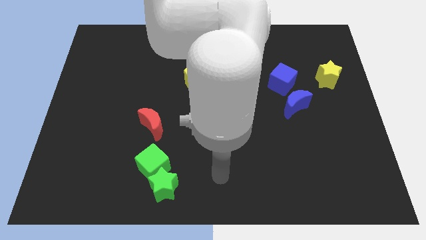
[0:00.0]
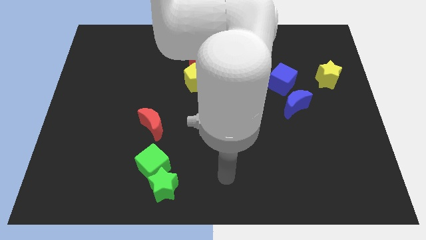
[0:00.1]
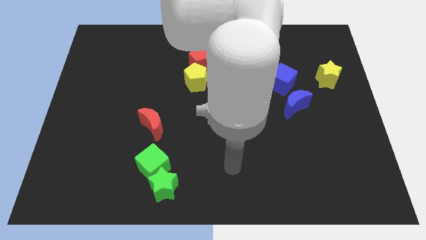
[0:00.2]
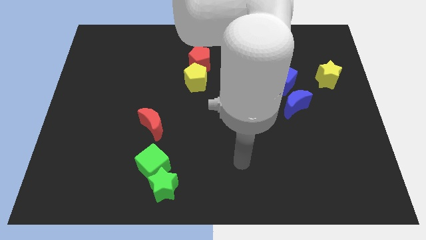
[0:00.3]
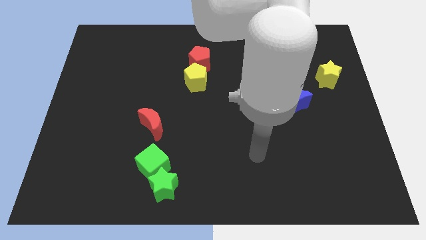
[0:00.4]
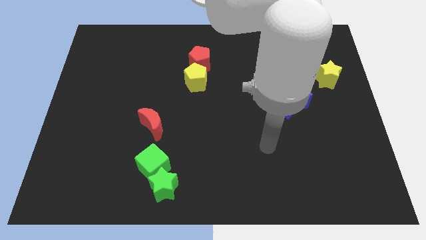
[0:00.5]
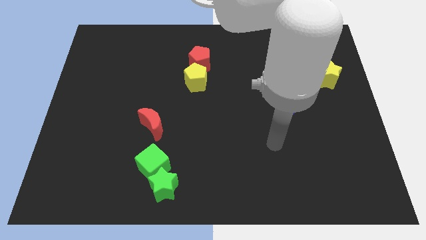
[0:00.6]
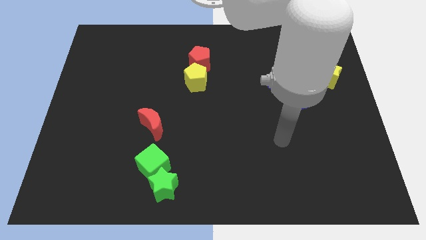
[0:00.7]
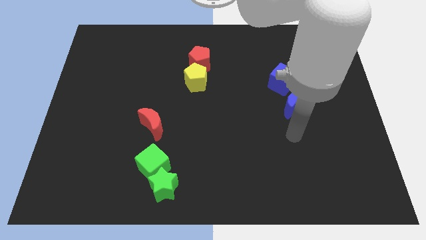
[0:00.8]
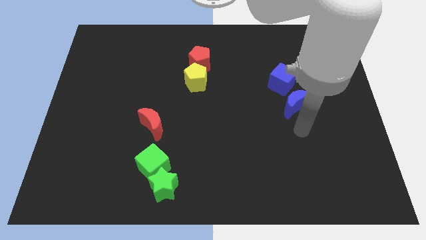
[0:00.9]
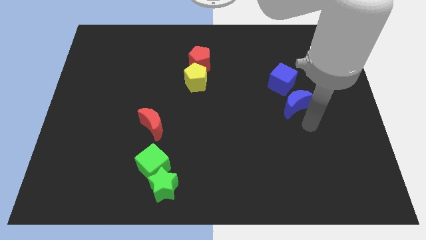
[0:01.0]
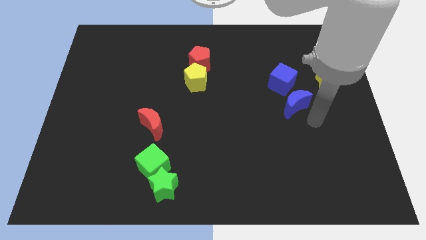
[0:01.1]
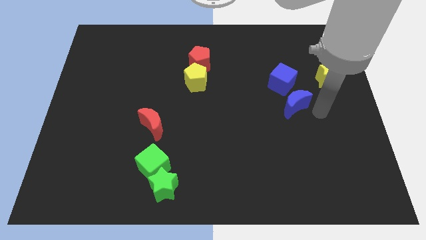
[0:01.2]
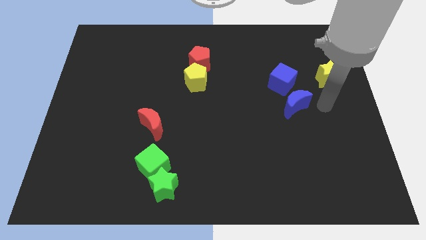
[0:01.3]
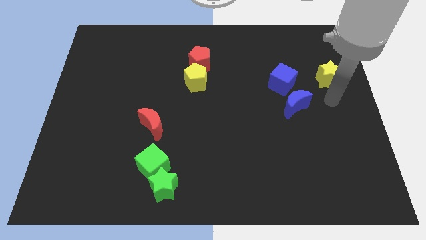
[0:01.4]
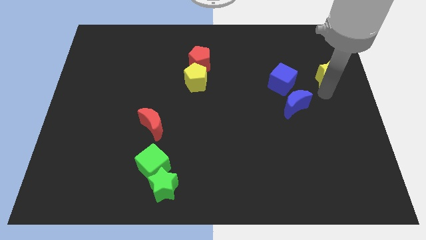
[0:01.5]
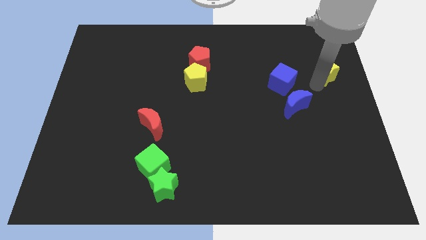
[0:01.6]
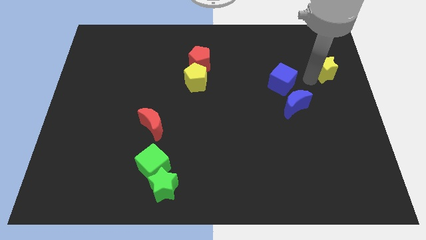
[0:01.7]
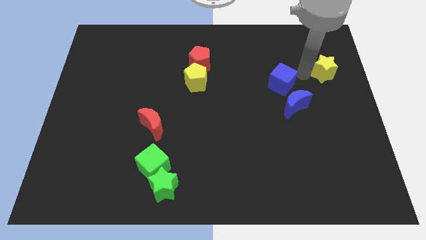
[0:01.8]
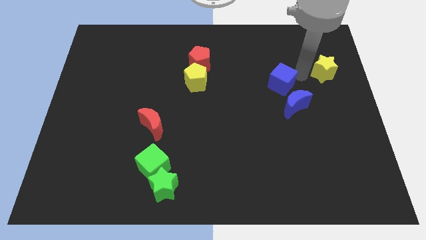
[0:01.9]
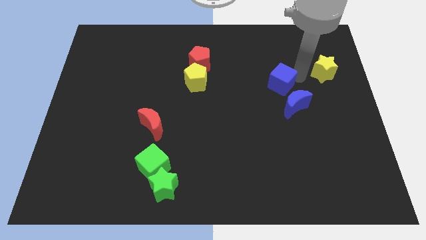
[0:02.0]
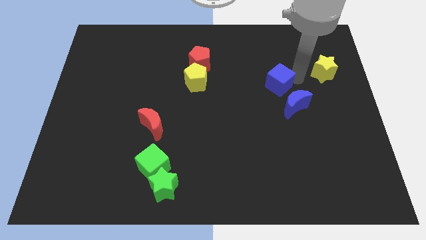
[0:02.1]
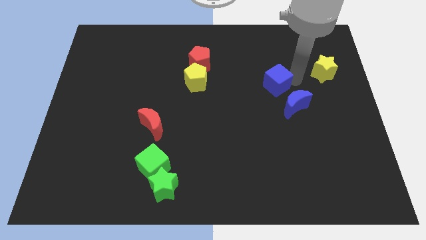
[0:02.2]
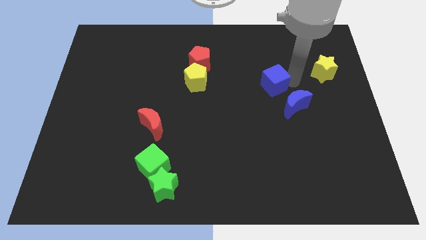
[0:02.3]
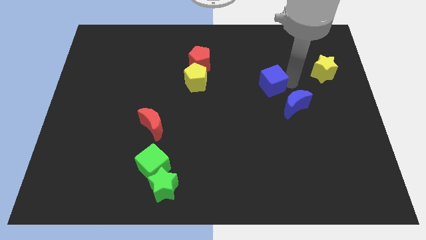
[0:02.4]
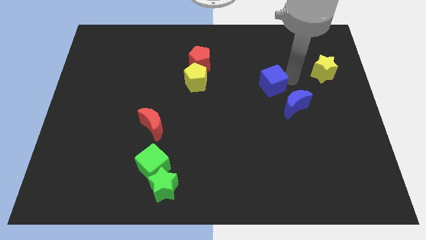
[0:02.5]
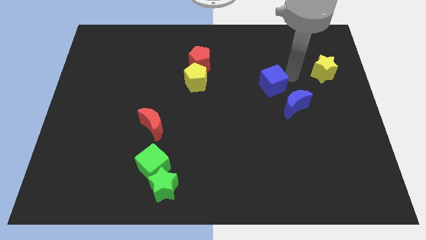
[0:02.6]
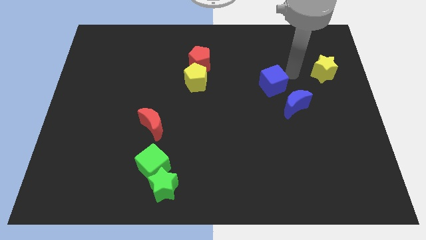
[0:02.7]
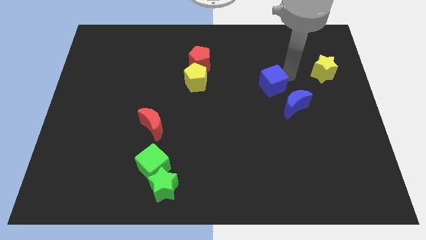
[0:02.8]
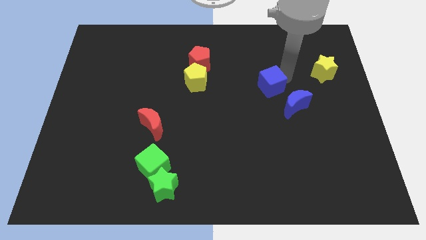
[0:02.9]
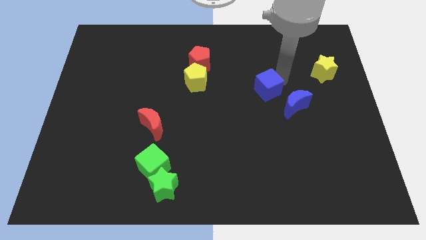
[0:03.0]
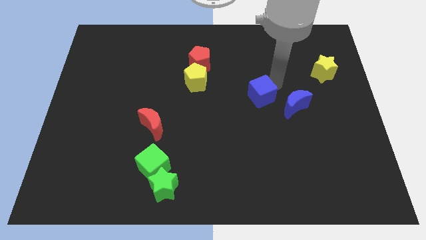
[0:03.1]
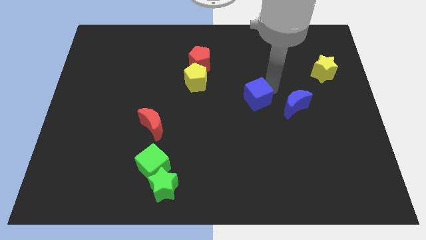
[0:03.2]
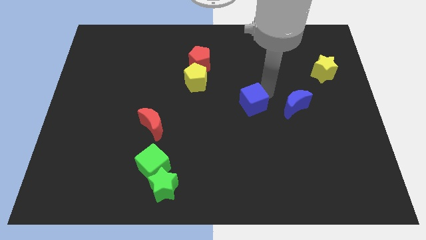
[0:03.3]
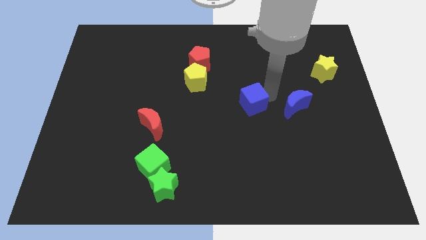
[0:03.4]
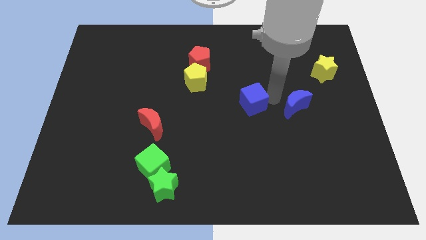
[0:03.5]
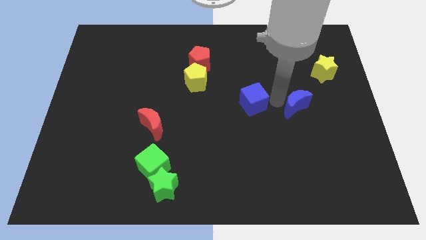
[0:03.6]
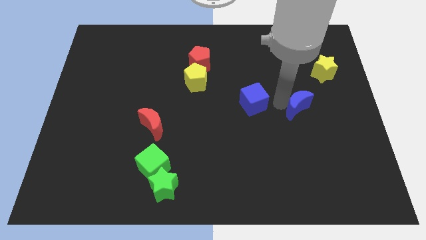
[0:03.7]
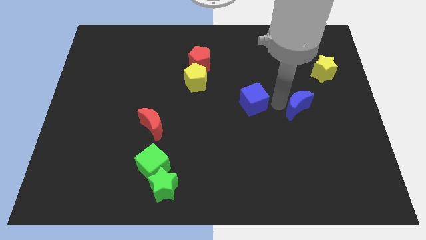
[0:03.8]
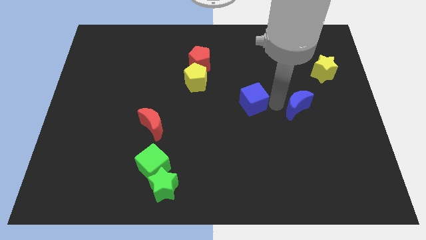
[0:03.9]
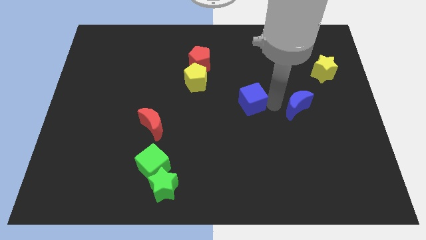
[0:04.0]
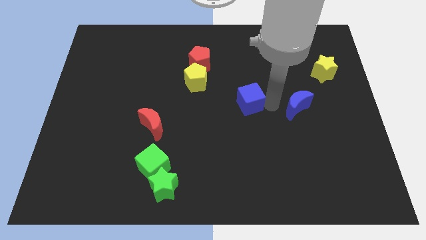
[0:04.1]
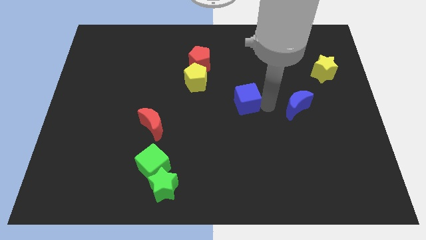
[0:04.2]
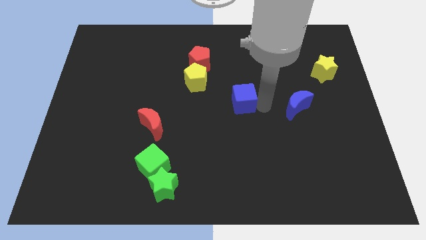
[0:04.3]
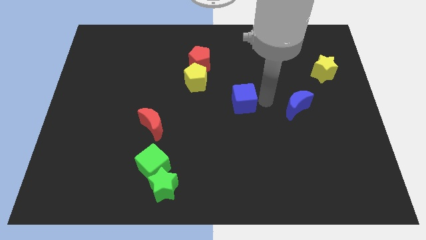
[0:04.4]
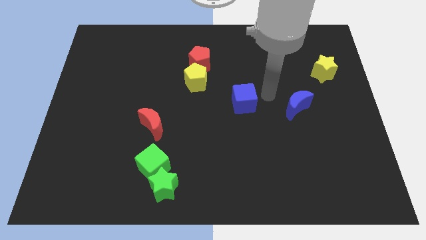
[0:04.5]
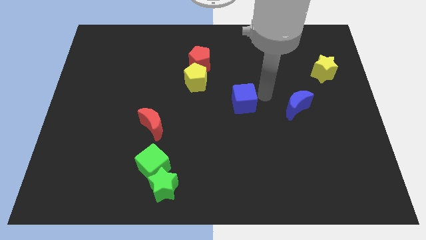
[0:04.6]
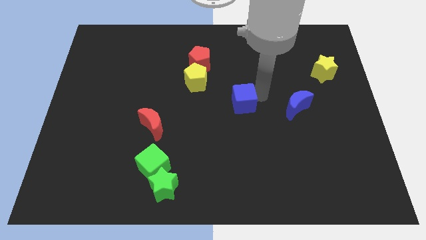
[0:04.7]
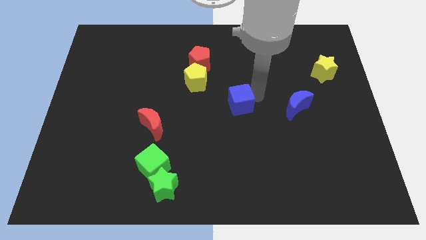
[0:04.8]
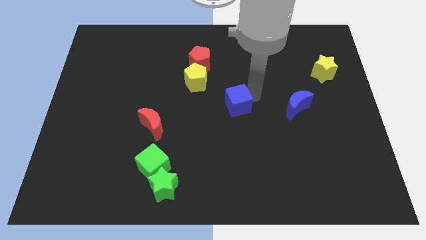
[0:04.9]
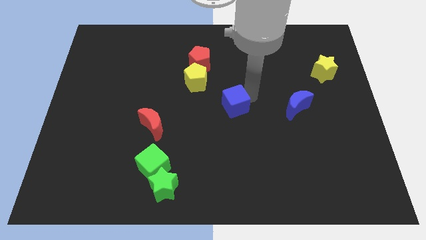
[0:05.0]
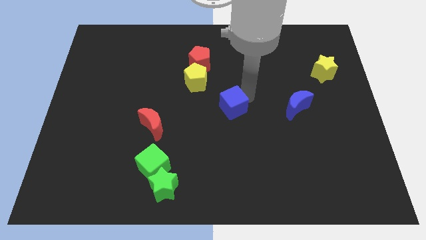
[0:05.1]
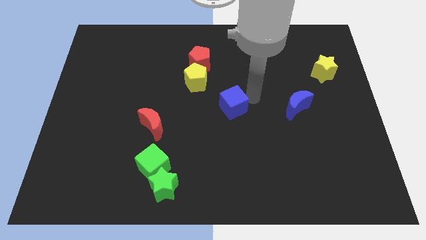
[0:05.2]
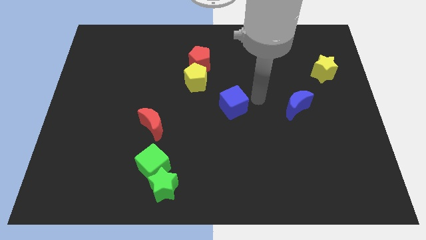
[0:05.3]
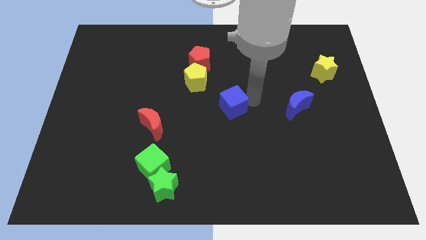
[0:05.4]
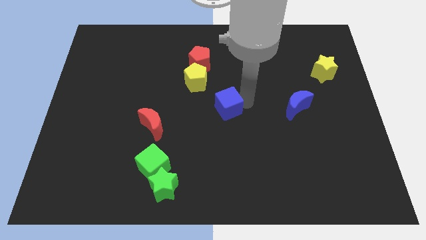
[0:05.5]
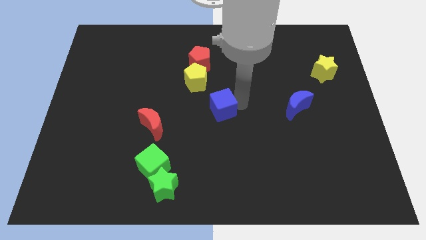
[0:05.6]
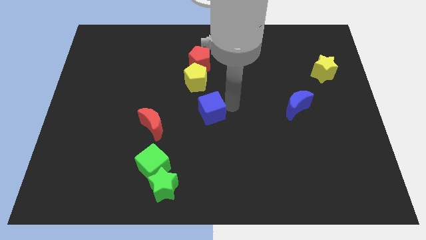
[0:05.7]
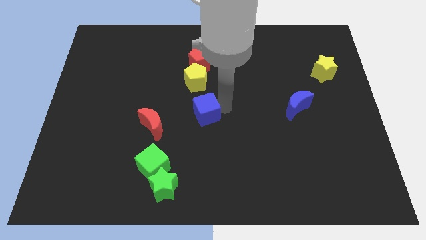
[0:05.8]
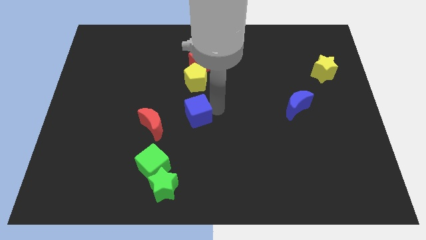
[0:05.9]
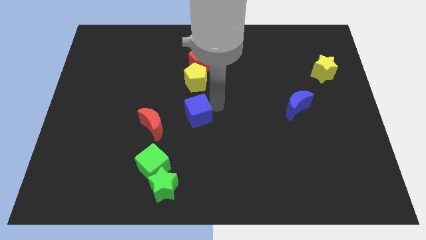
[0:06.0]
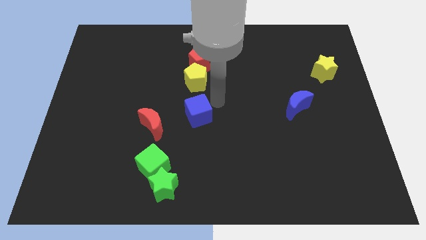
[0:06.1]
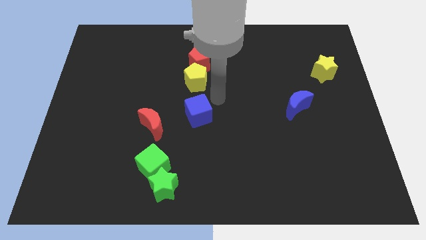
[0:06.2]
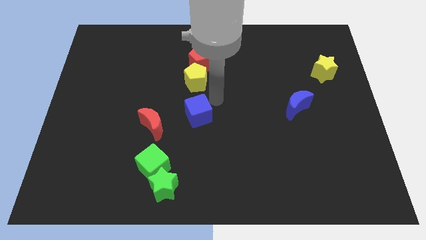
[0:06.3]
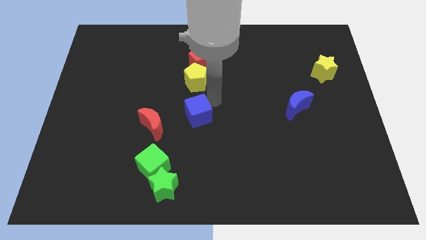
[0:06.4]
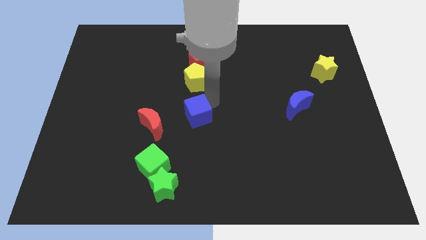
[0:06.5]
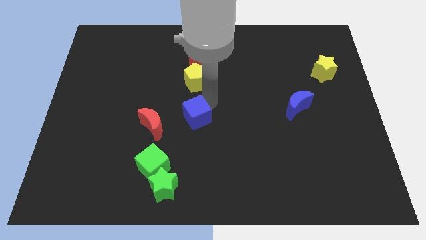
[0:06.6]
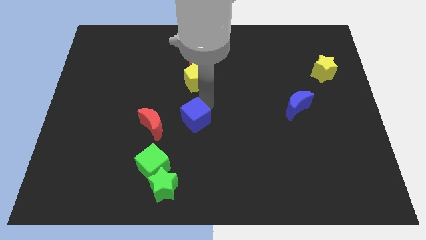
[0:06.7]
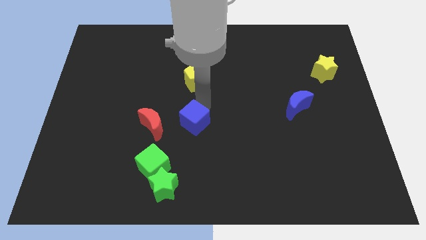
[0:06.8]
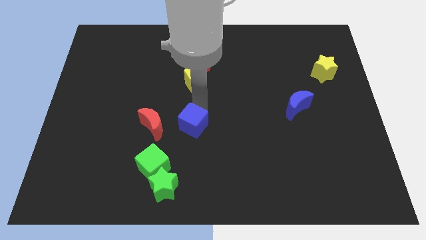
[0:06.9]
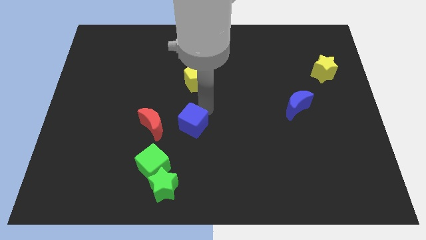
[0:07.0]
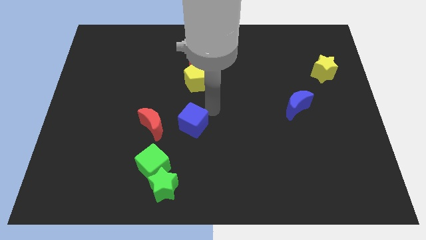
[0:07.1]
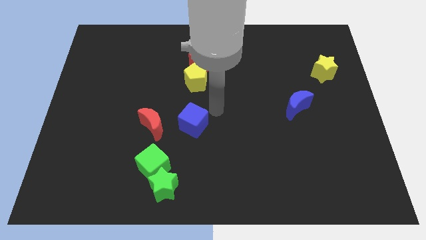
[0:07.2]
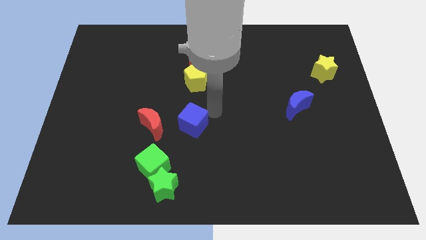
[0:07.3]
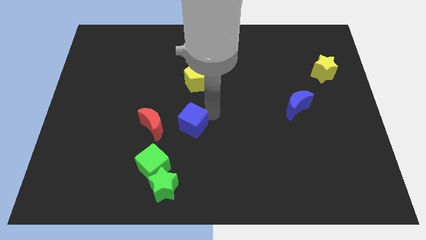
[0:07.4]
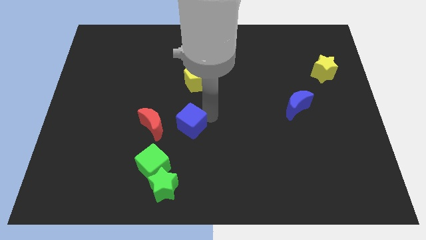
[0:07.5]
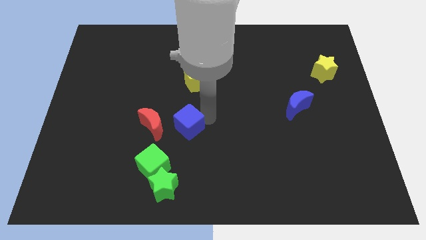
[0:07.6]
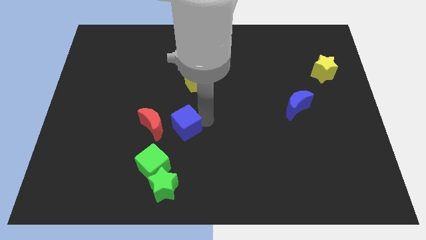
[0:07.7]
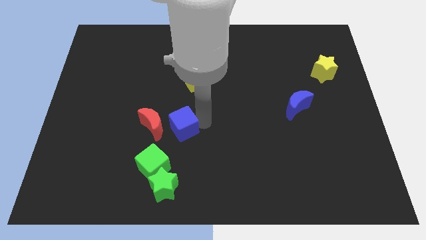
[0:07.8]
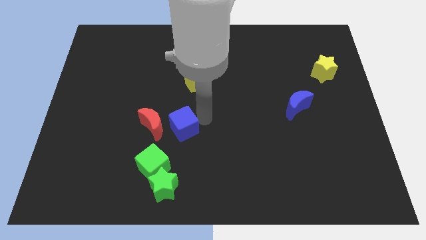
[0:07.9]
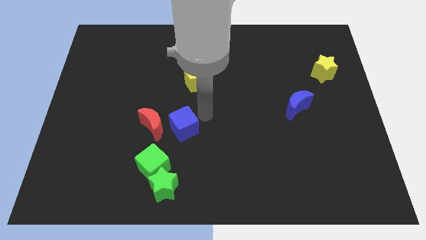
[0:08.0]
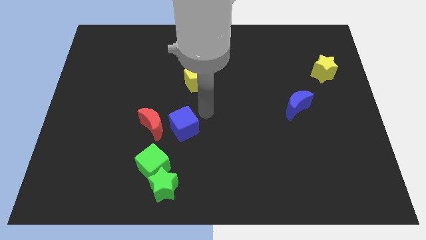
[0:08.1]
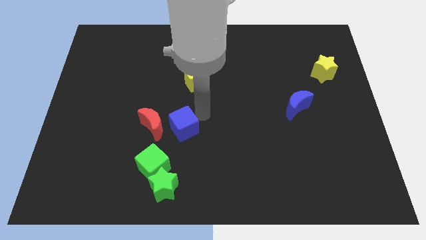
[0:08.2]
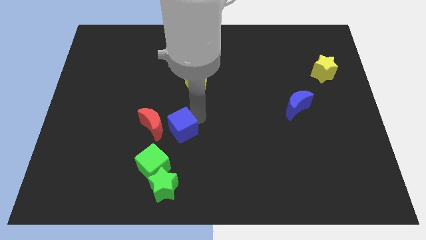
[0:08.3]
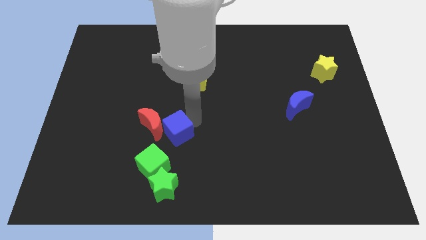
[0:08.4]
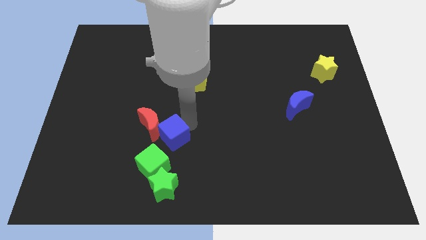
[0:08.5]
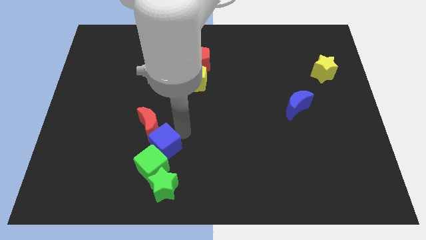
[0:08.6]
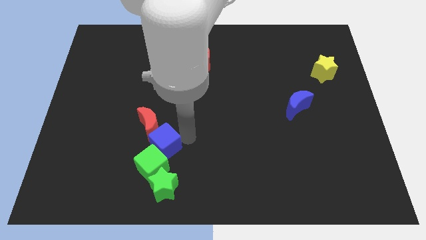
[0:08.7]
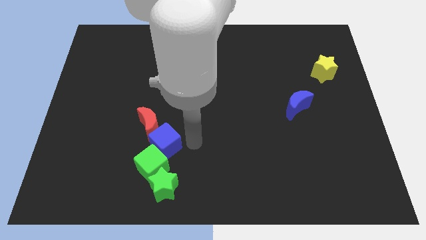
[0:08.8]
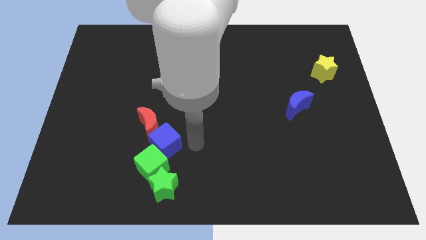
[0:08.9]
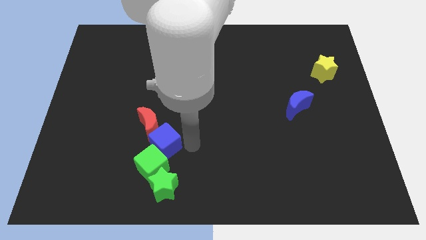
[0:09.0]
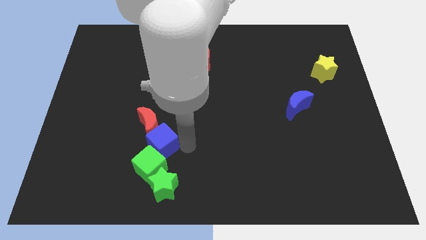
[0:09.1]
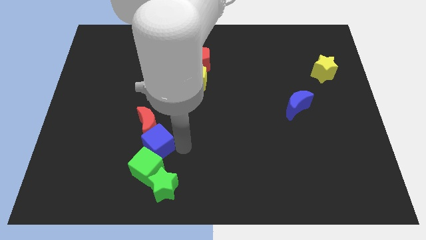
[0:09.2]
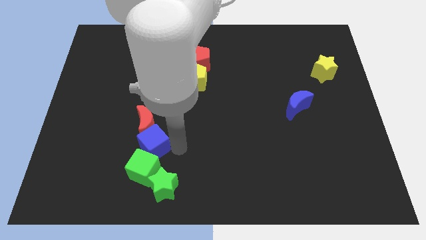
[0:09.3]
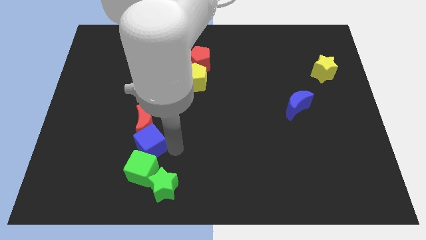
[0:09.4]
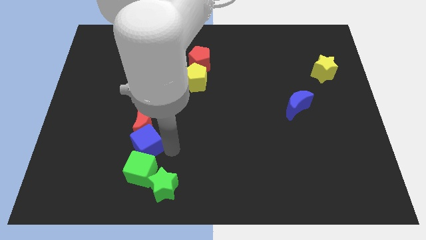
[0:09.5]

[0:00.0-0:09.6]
put the blue cube to the bottom left of the red moon
